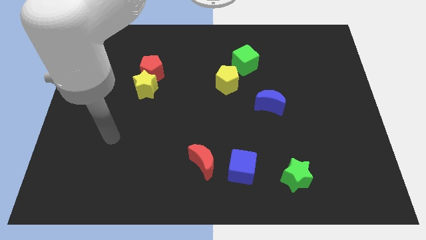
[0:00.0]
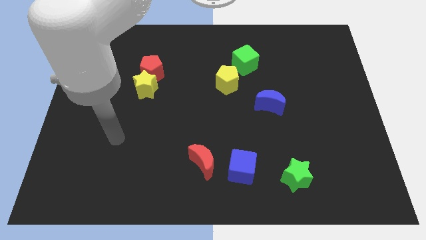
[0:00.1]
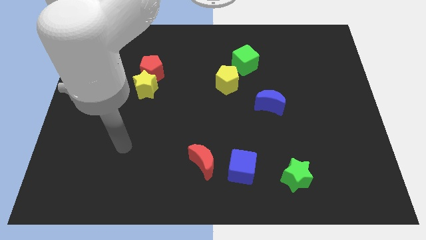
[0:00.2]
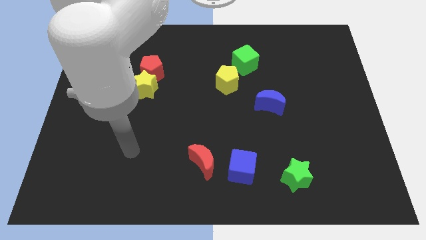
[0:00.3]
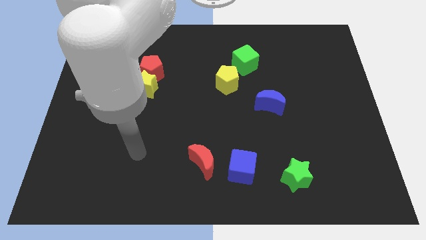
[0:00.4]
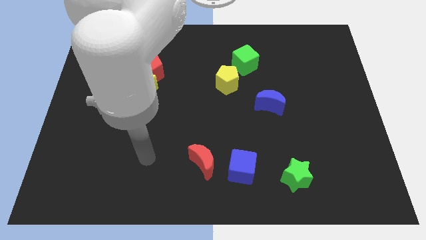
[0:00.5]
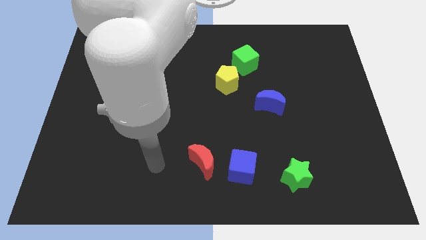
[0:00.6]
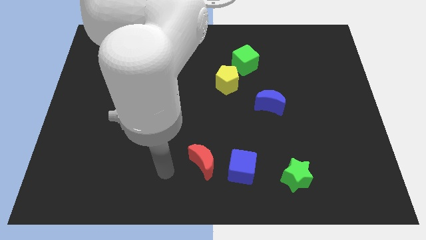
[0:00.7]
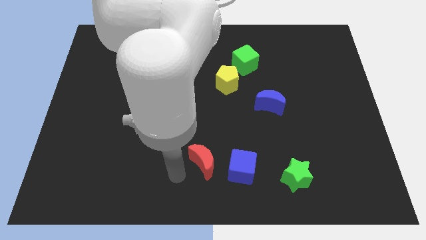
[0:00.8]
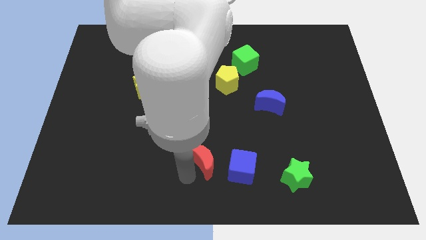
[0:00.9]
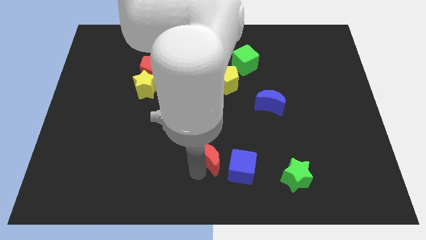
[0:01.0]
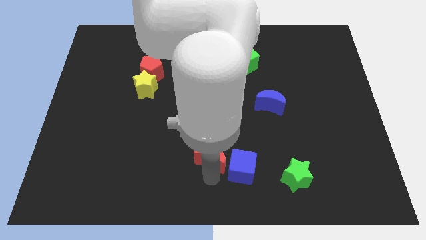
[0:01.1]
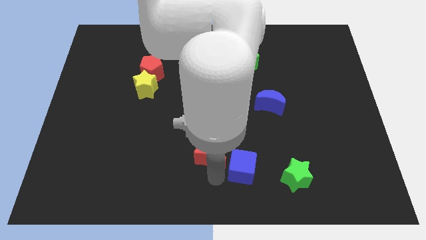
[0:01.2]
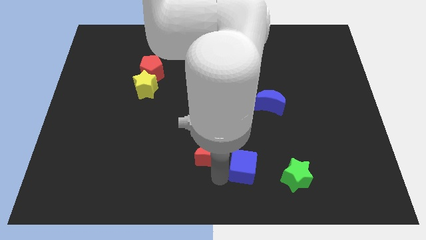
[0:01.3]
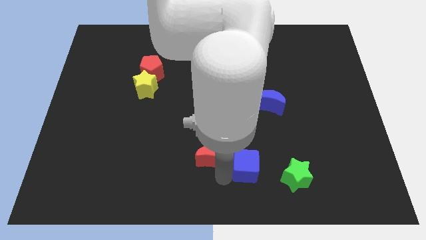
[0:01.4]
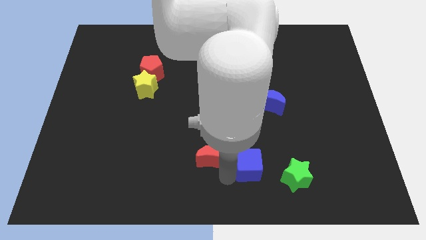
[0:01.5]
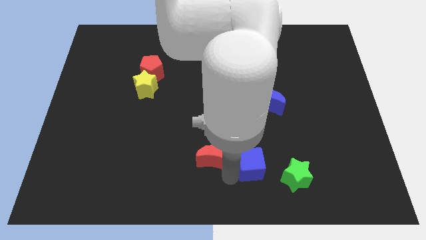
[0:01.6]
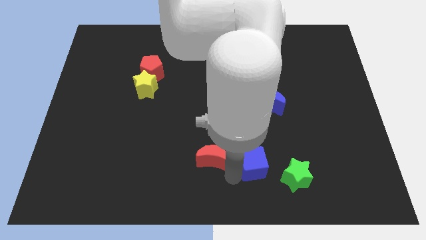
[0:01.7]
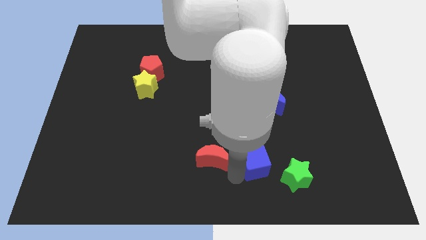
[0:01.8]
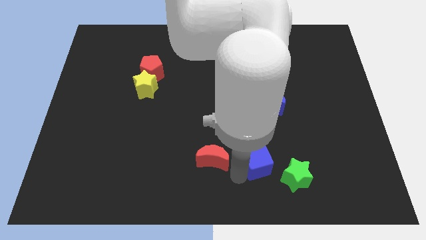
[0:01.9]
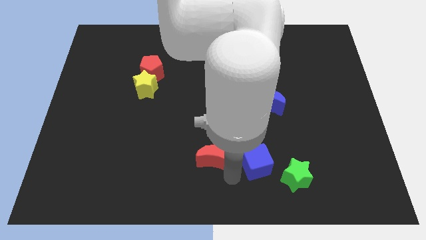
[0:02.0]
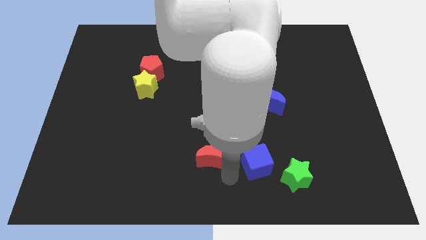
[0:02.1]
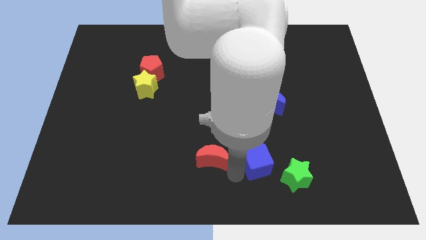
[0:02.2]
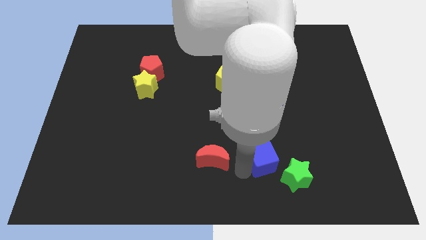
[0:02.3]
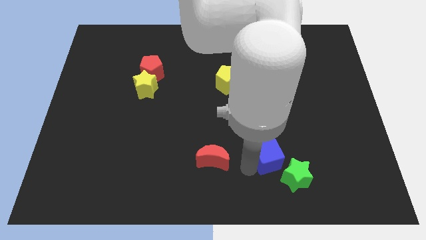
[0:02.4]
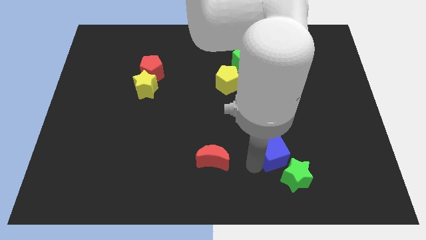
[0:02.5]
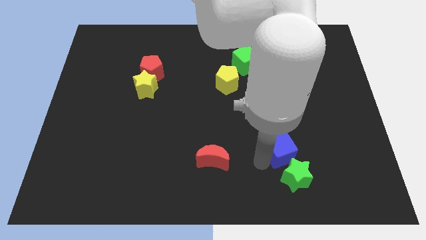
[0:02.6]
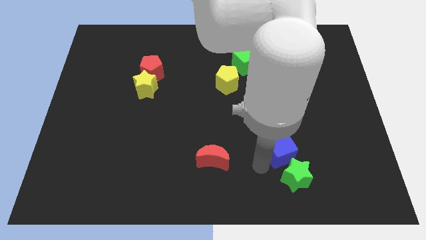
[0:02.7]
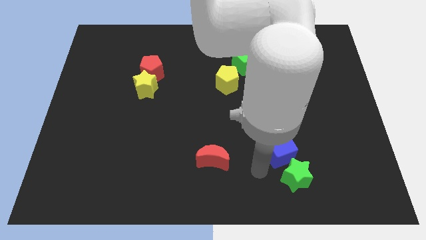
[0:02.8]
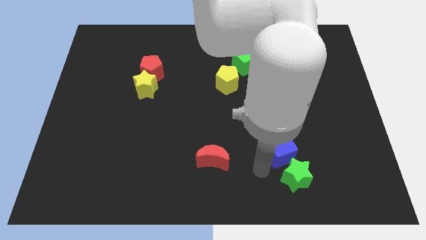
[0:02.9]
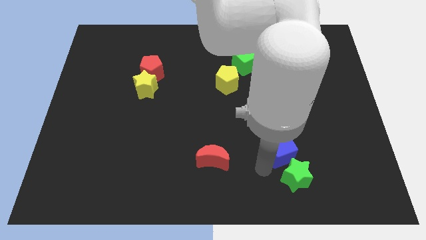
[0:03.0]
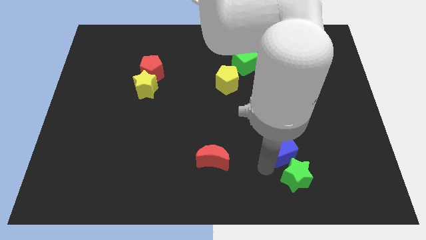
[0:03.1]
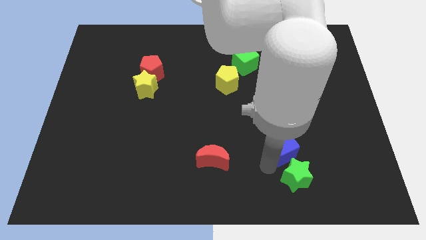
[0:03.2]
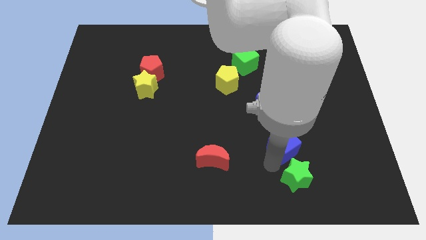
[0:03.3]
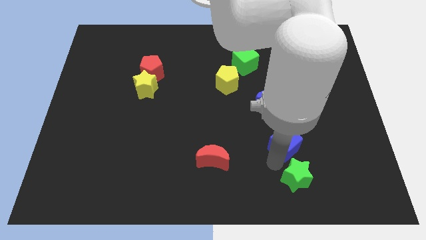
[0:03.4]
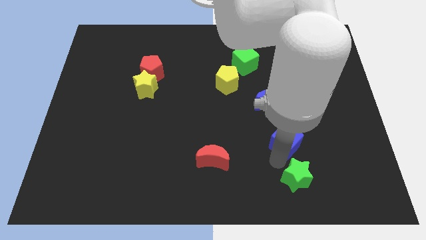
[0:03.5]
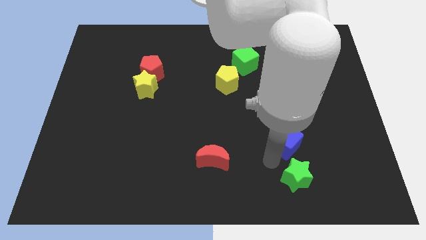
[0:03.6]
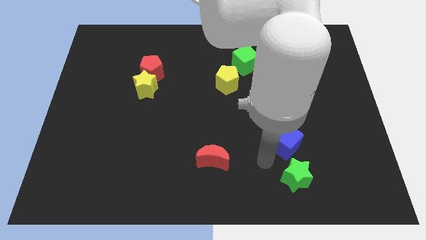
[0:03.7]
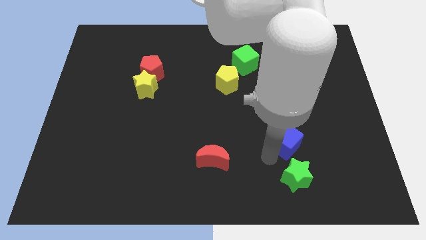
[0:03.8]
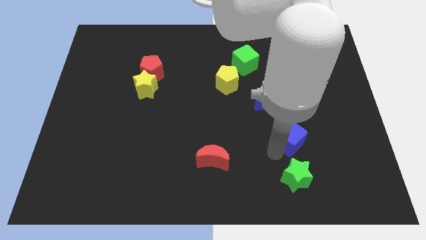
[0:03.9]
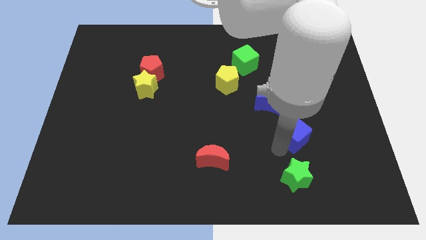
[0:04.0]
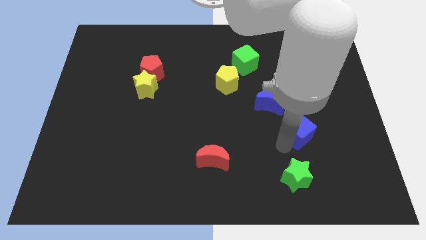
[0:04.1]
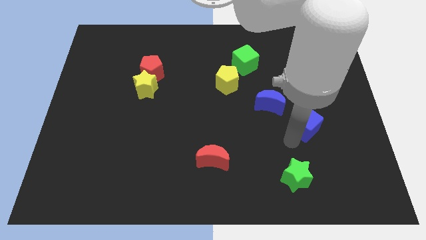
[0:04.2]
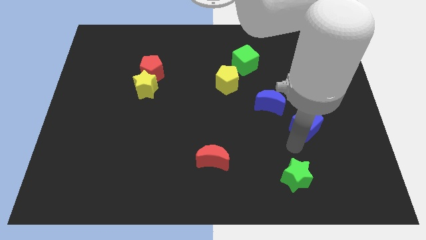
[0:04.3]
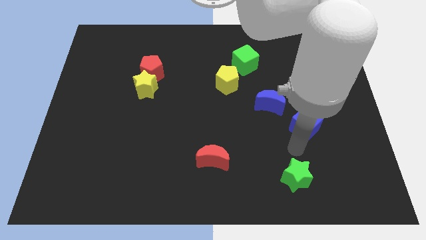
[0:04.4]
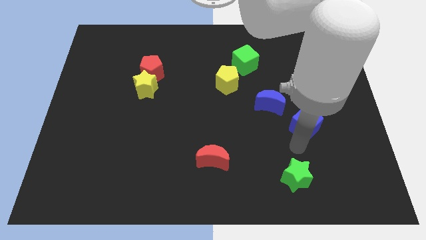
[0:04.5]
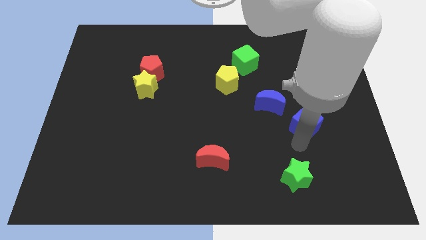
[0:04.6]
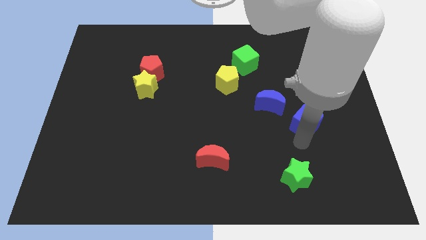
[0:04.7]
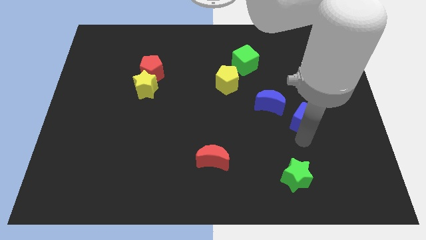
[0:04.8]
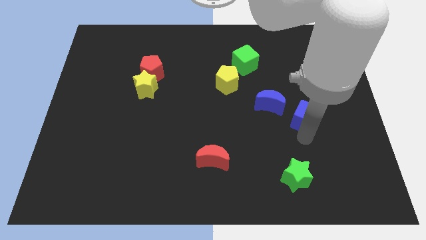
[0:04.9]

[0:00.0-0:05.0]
move the blue cube just right of the blue moon

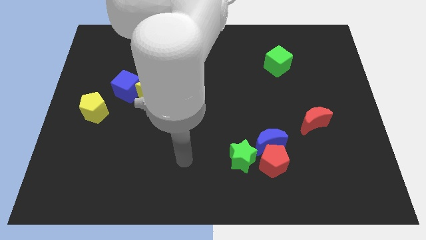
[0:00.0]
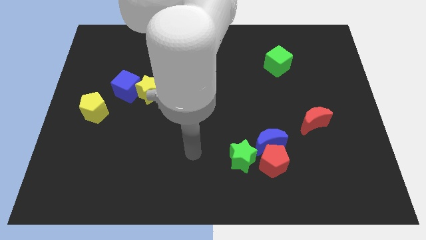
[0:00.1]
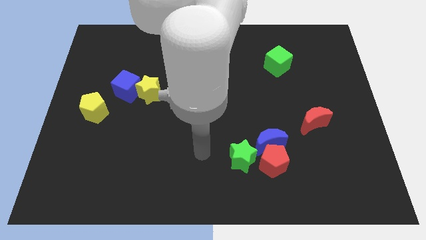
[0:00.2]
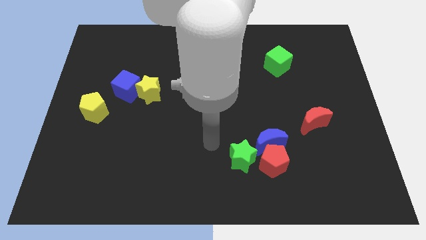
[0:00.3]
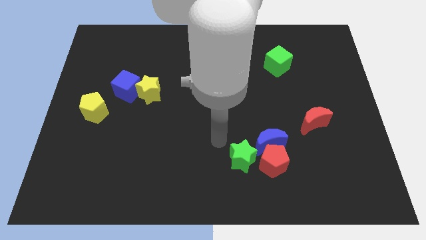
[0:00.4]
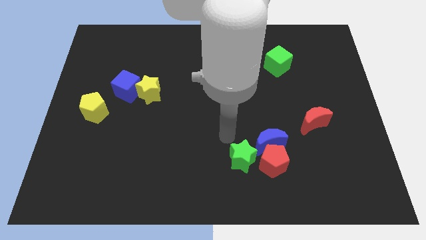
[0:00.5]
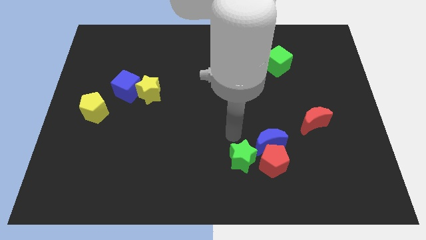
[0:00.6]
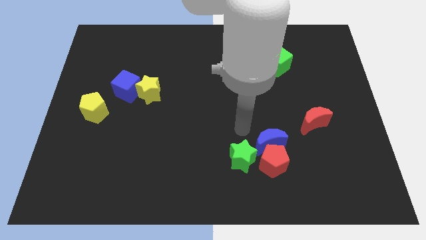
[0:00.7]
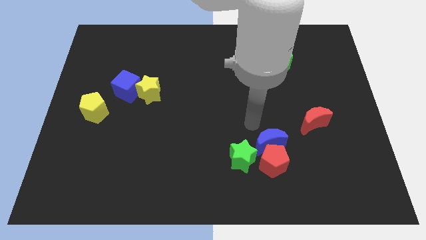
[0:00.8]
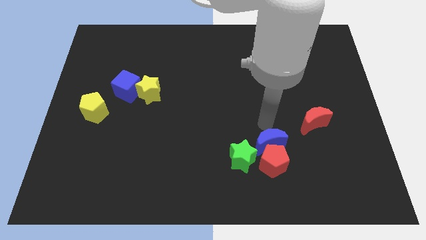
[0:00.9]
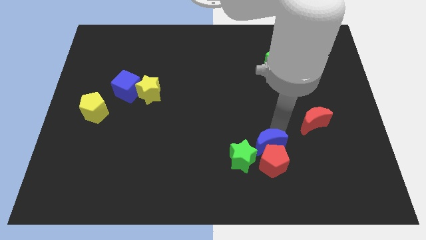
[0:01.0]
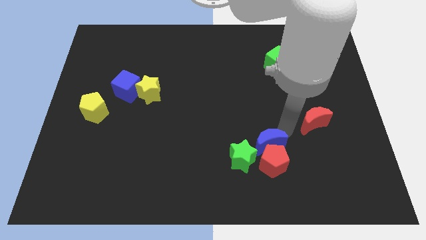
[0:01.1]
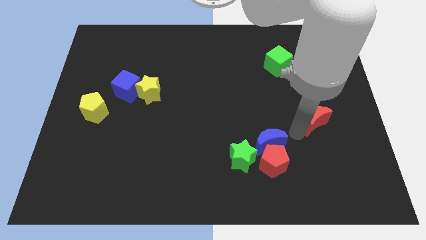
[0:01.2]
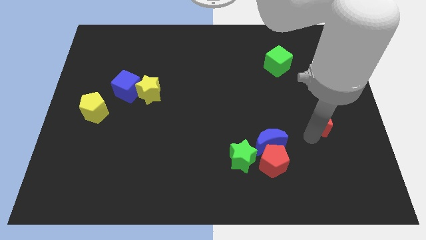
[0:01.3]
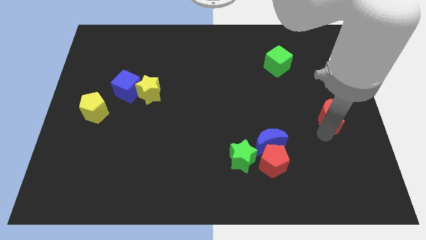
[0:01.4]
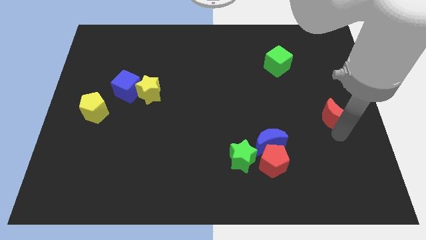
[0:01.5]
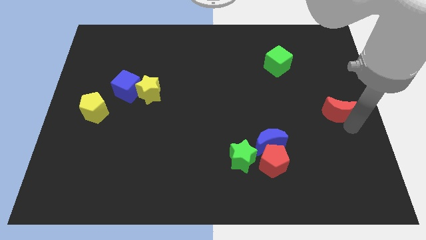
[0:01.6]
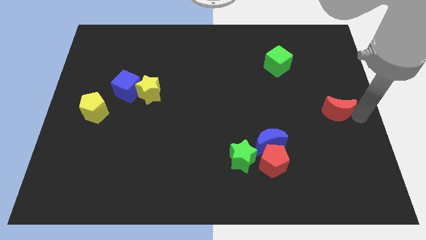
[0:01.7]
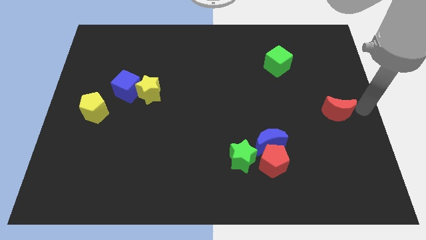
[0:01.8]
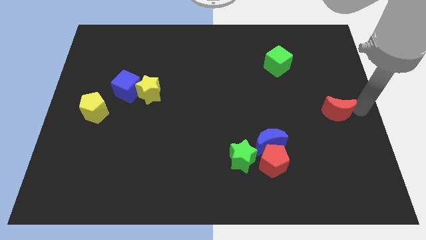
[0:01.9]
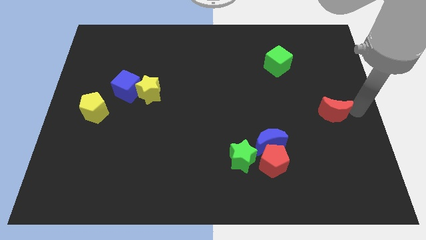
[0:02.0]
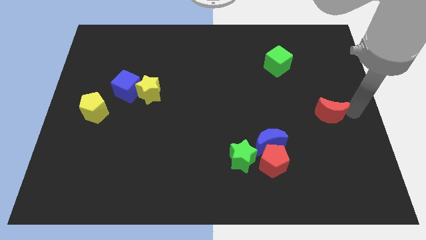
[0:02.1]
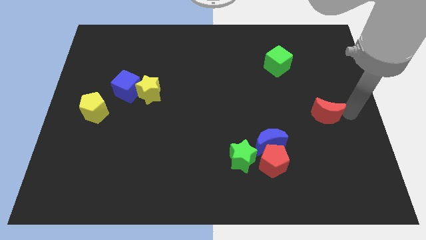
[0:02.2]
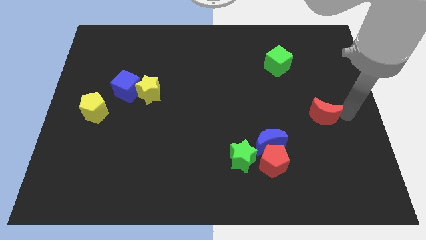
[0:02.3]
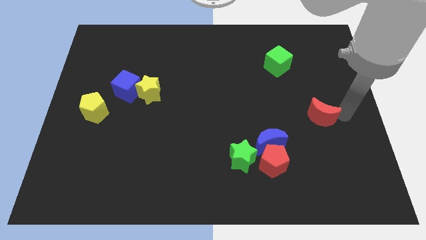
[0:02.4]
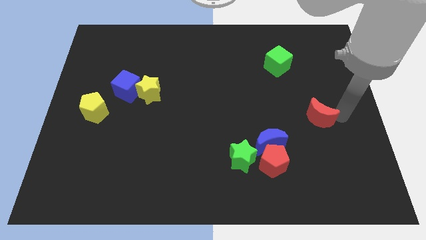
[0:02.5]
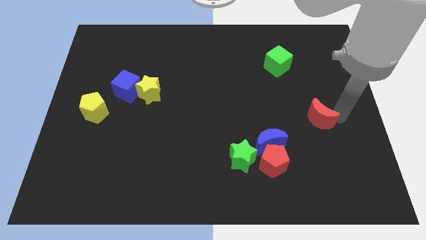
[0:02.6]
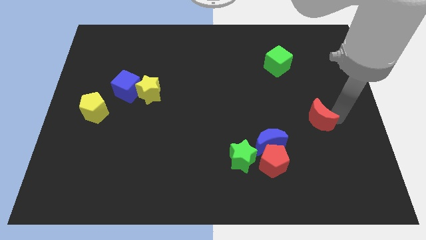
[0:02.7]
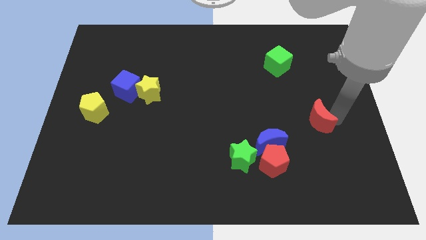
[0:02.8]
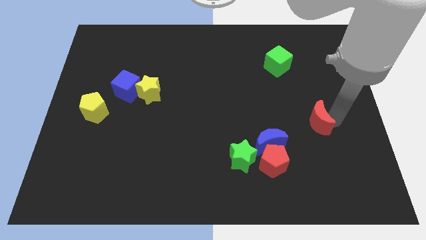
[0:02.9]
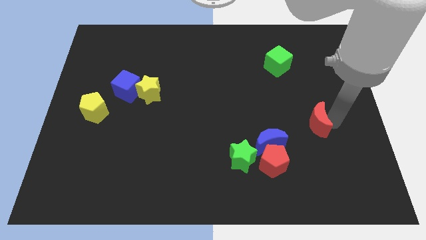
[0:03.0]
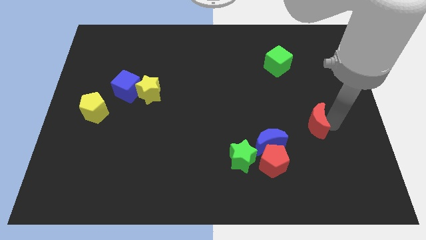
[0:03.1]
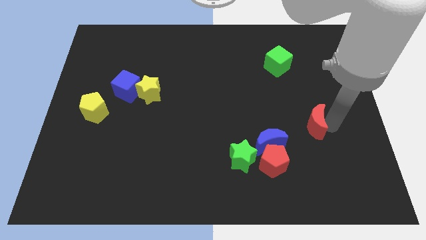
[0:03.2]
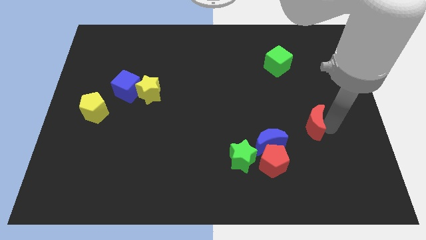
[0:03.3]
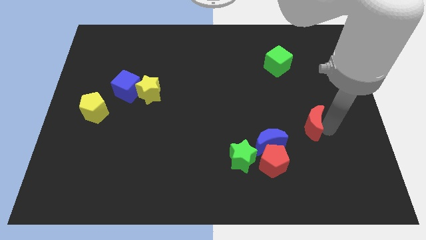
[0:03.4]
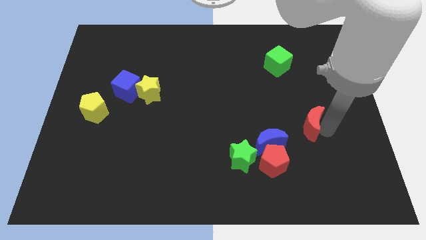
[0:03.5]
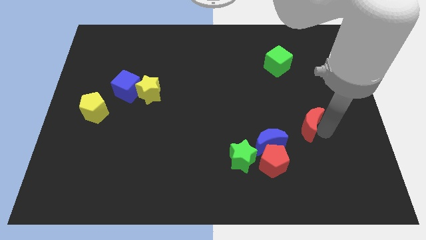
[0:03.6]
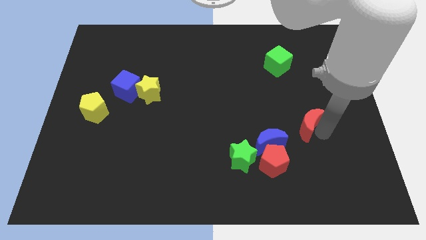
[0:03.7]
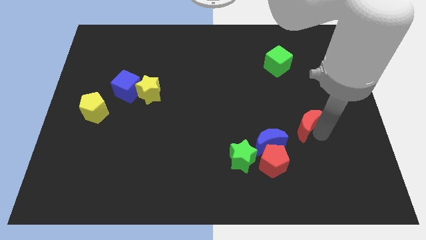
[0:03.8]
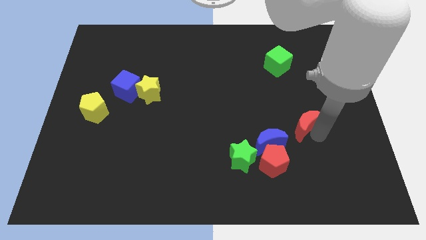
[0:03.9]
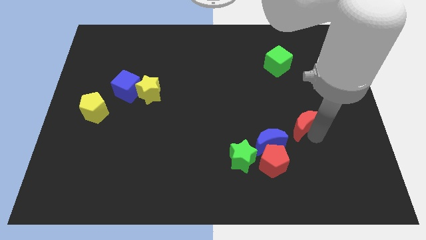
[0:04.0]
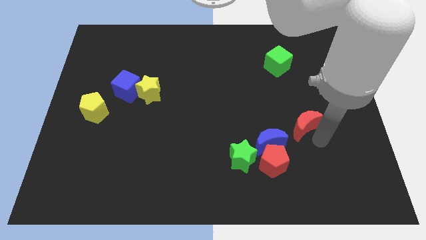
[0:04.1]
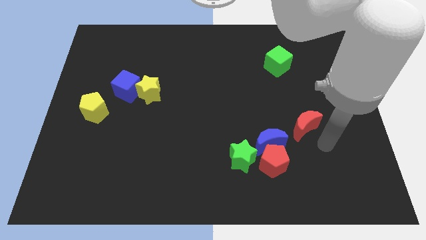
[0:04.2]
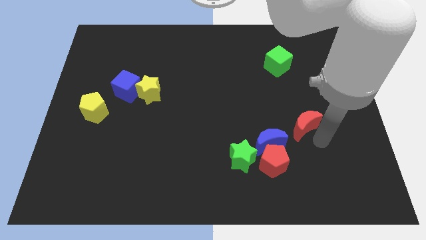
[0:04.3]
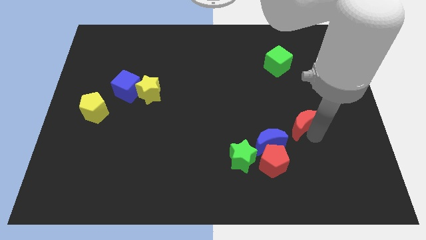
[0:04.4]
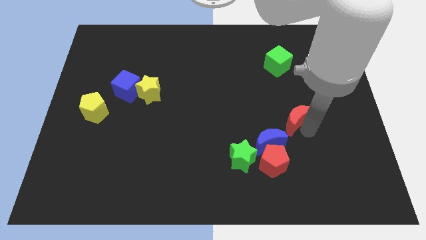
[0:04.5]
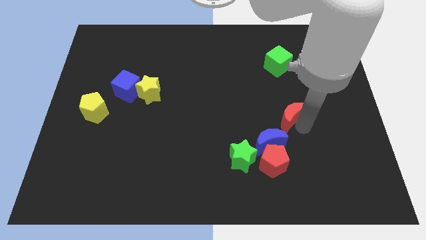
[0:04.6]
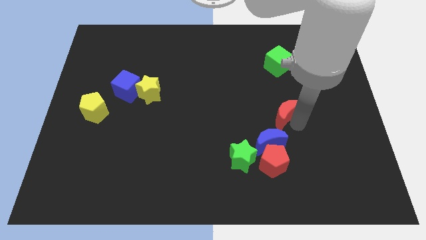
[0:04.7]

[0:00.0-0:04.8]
move the red moon to the top of the blue moon
